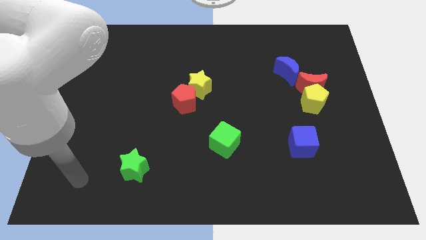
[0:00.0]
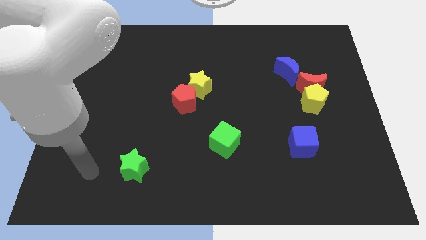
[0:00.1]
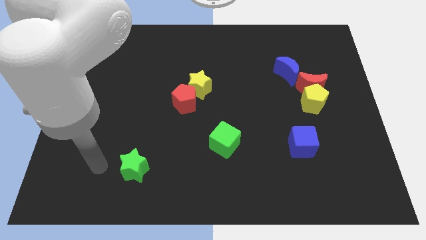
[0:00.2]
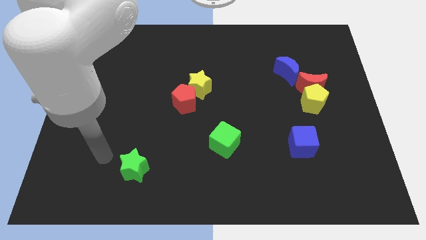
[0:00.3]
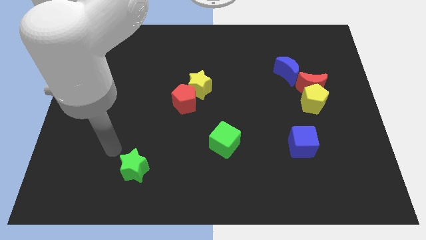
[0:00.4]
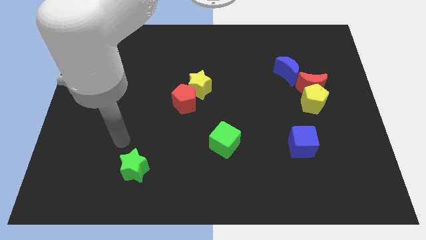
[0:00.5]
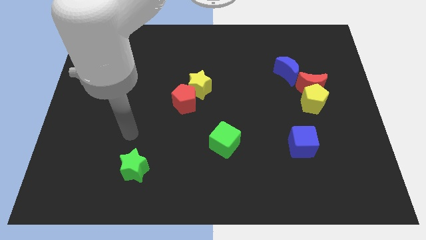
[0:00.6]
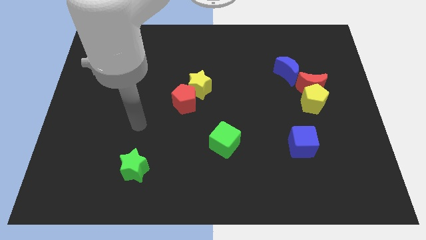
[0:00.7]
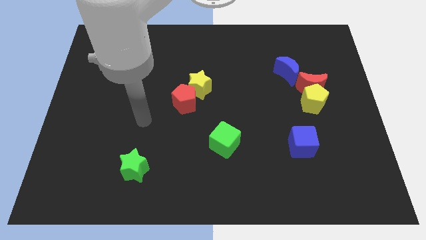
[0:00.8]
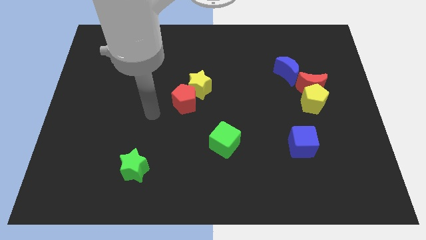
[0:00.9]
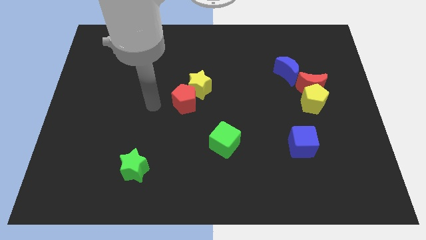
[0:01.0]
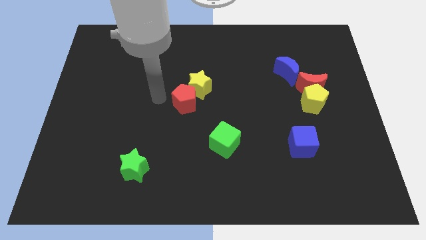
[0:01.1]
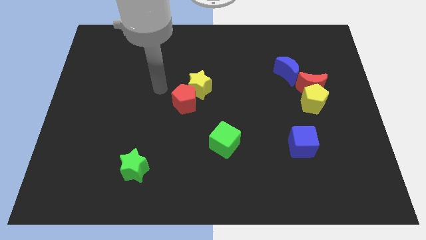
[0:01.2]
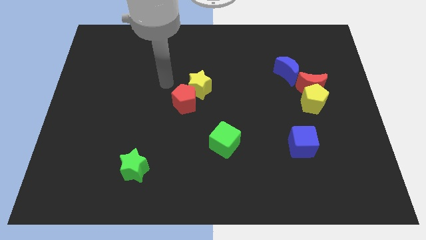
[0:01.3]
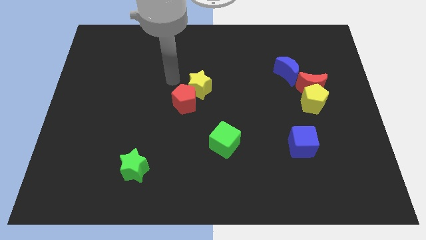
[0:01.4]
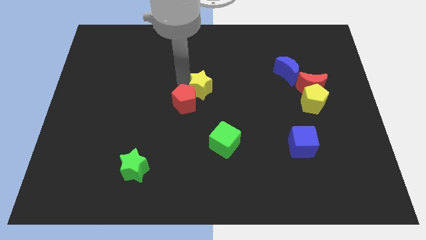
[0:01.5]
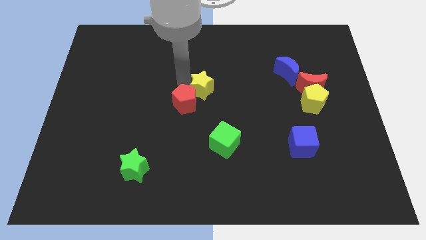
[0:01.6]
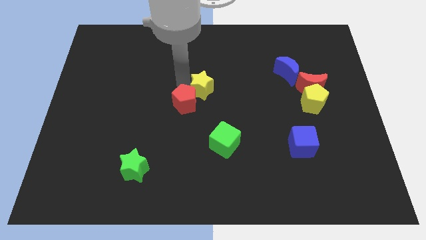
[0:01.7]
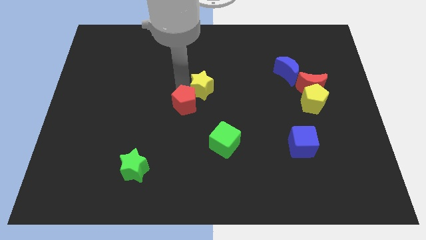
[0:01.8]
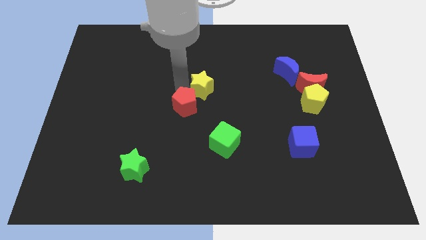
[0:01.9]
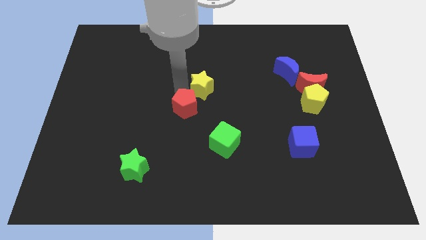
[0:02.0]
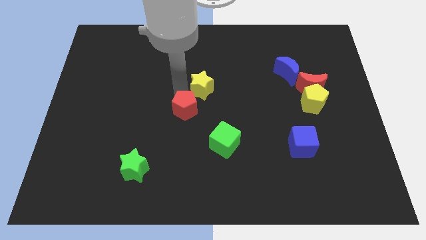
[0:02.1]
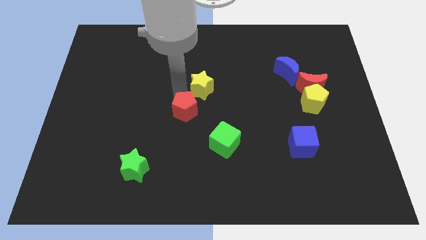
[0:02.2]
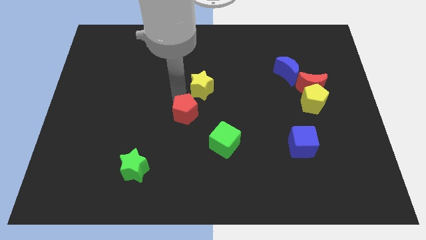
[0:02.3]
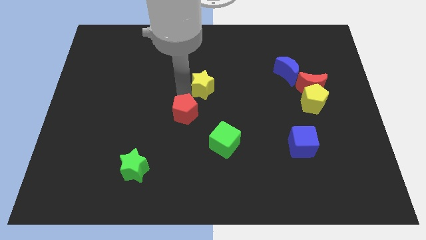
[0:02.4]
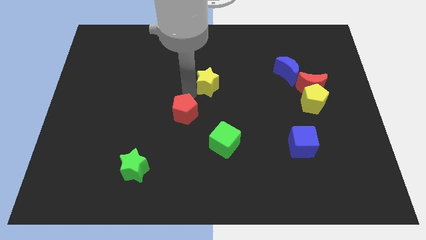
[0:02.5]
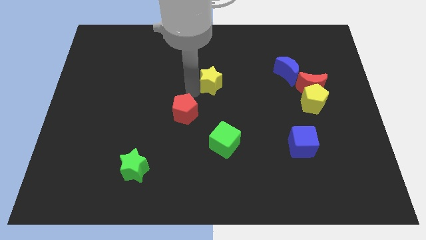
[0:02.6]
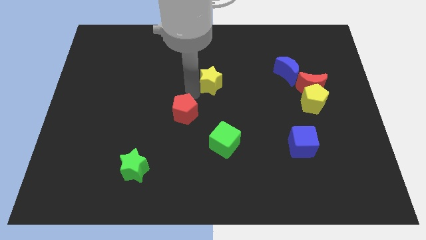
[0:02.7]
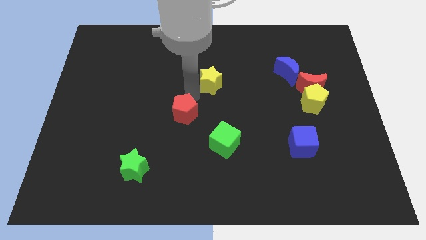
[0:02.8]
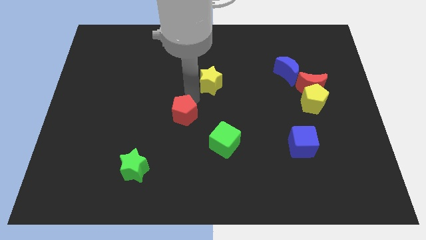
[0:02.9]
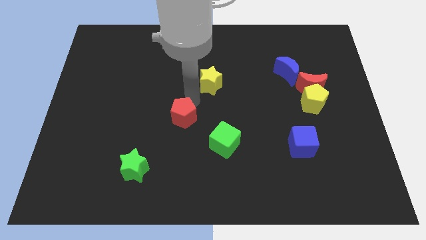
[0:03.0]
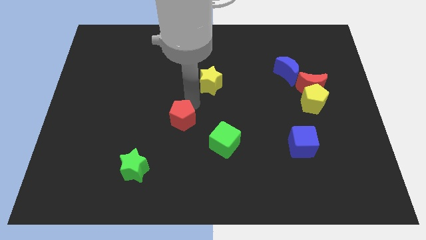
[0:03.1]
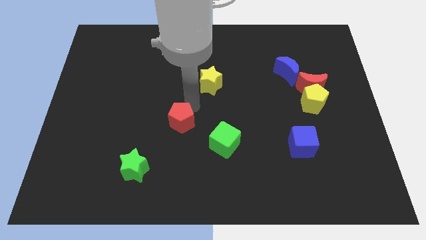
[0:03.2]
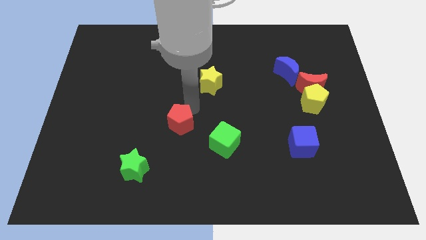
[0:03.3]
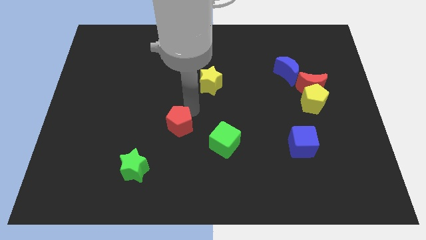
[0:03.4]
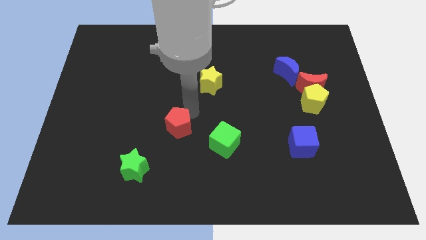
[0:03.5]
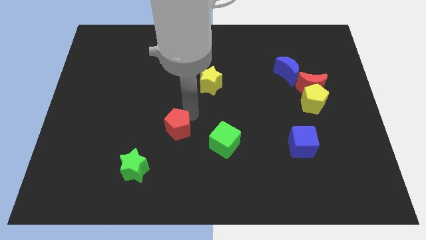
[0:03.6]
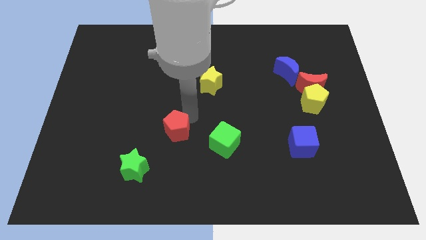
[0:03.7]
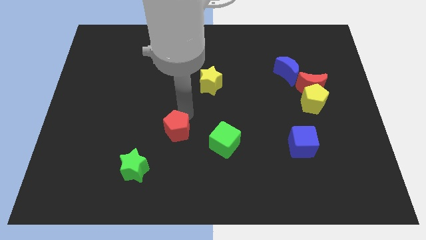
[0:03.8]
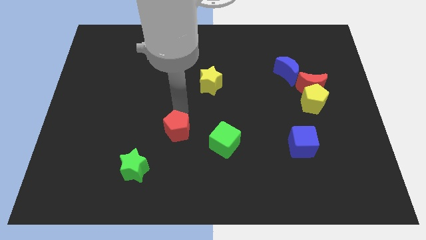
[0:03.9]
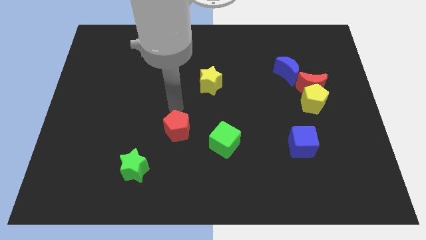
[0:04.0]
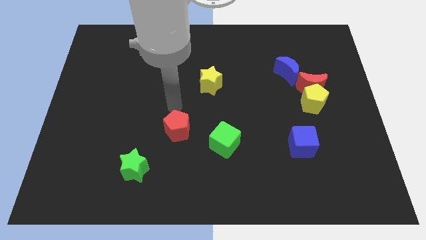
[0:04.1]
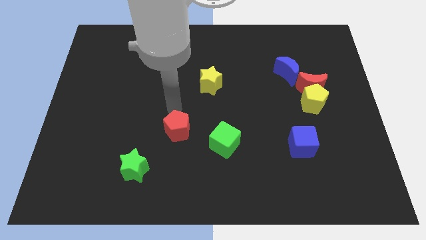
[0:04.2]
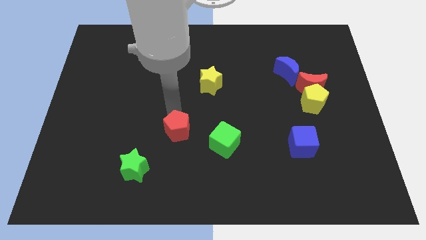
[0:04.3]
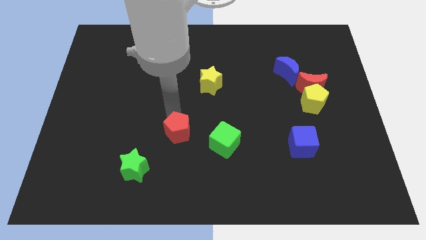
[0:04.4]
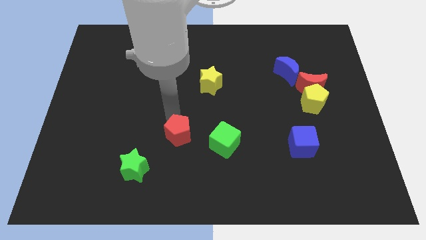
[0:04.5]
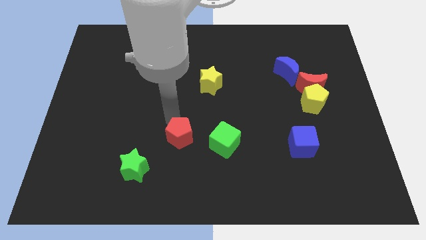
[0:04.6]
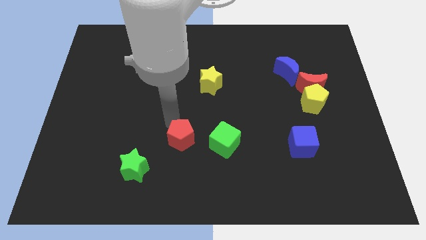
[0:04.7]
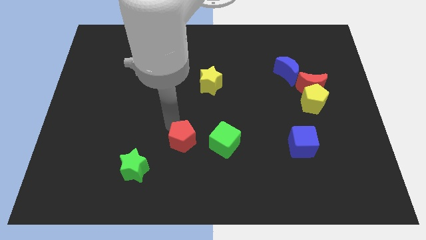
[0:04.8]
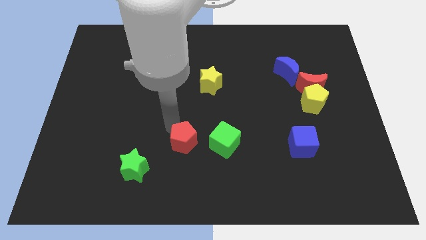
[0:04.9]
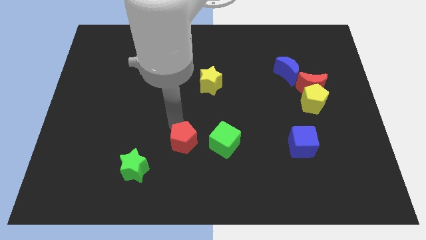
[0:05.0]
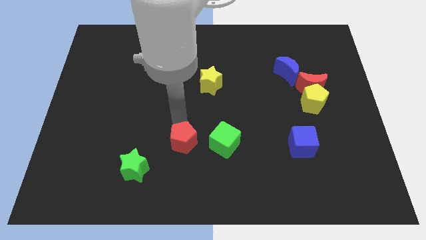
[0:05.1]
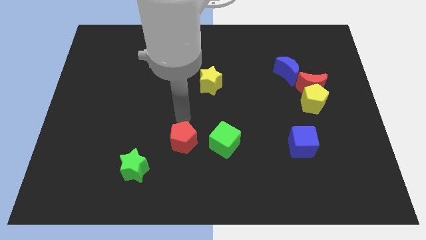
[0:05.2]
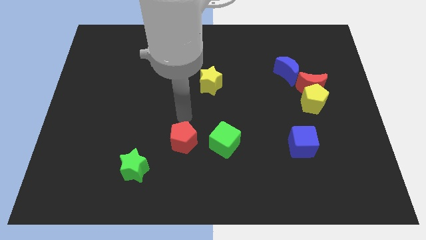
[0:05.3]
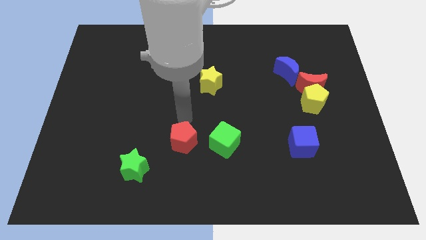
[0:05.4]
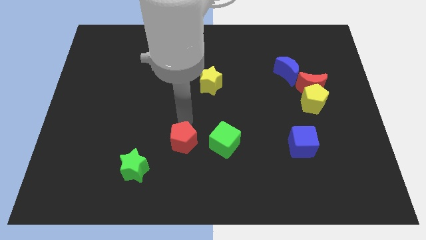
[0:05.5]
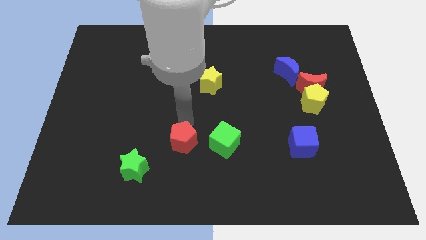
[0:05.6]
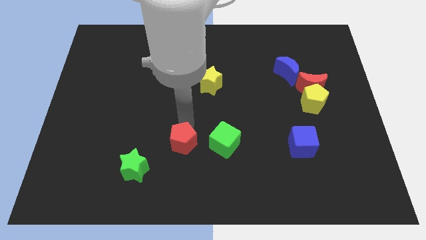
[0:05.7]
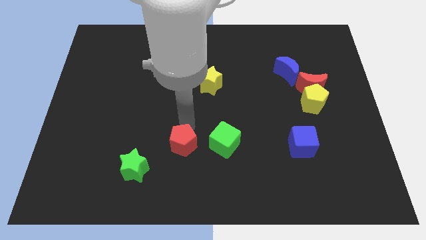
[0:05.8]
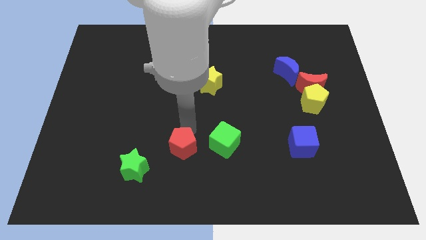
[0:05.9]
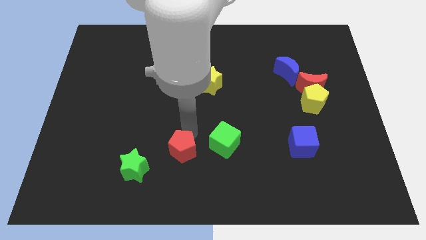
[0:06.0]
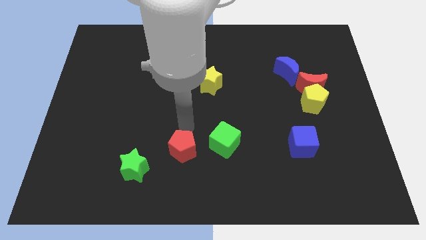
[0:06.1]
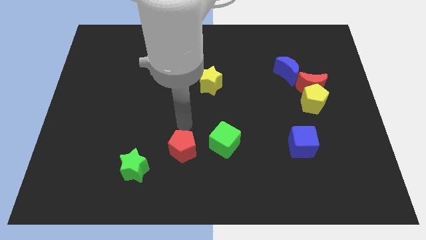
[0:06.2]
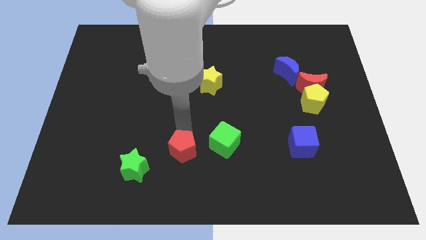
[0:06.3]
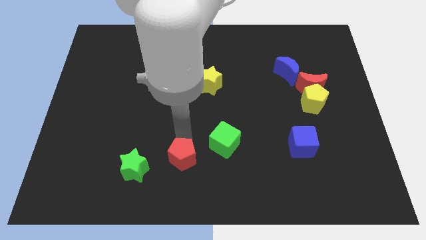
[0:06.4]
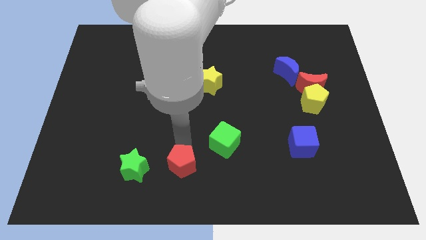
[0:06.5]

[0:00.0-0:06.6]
push the red pentagon to the bottom
